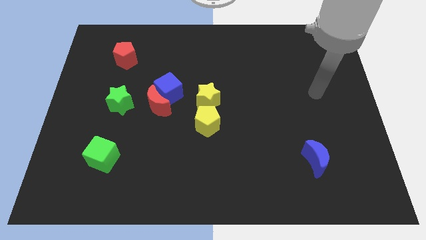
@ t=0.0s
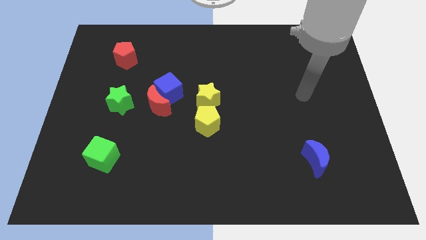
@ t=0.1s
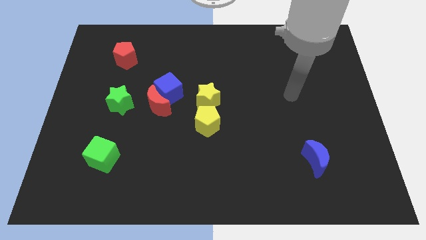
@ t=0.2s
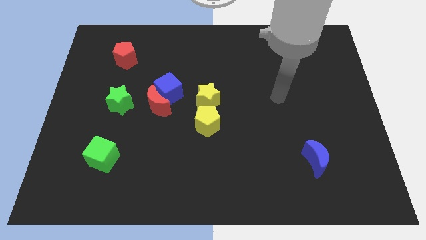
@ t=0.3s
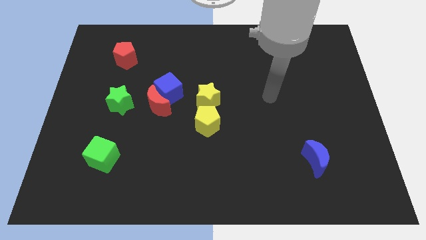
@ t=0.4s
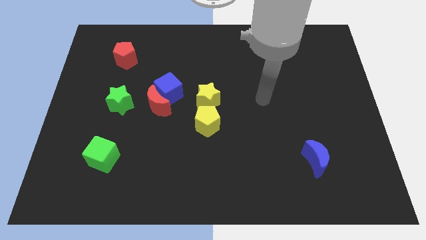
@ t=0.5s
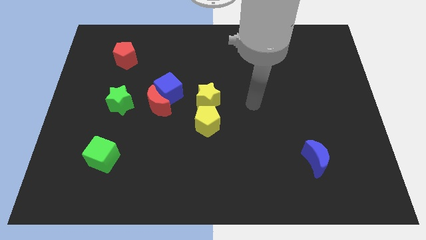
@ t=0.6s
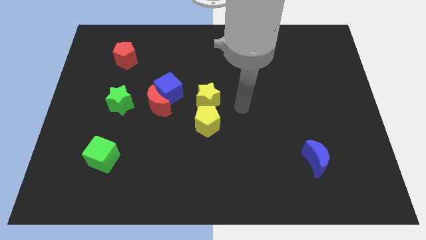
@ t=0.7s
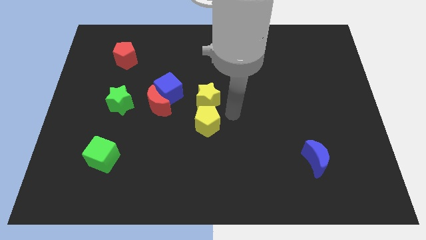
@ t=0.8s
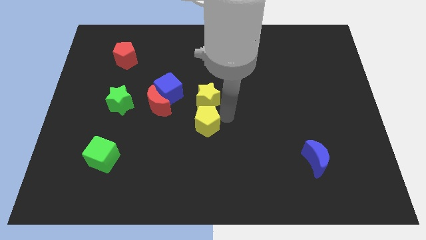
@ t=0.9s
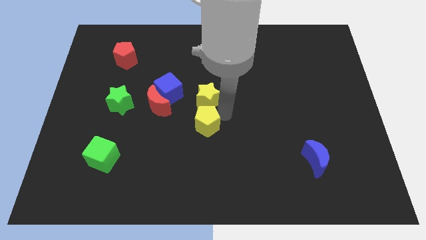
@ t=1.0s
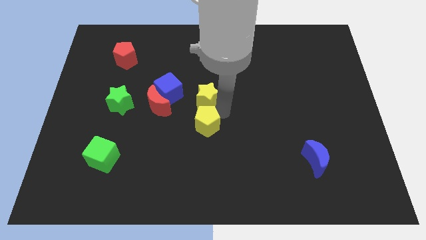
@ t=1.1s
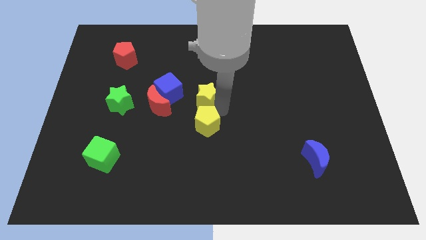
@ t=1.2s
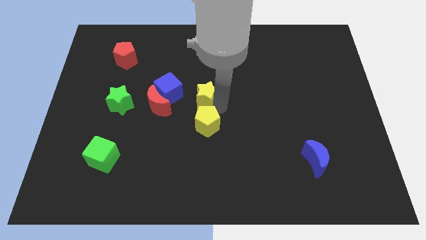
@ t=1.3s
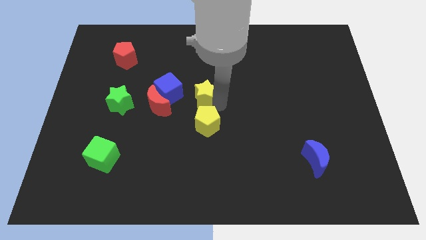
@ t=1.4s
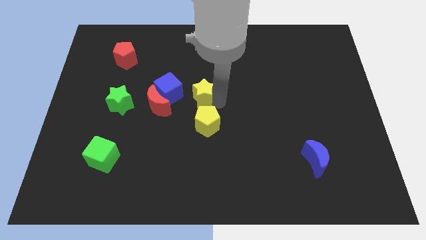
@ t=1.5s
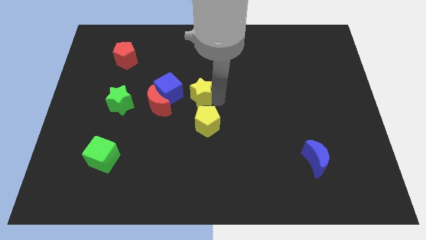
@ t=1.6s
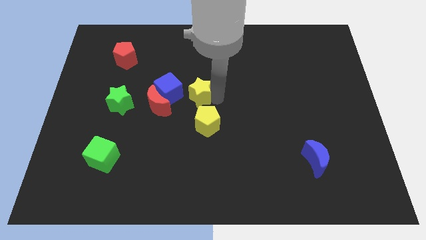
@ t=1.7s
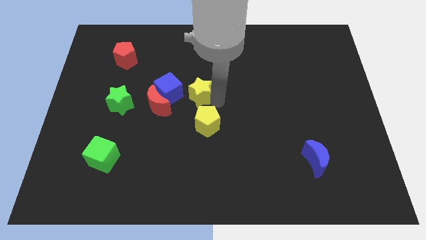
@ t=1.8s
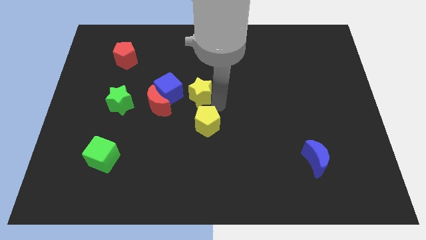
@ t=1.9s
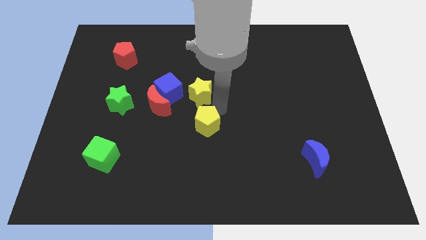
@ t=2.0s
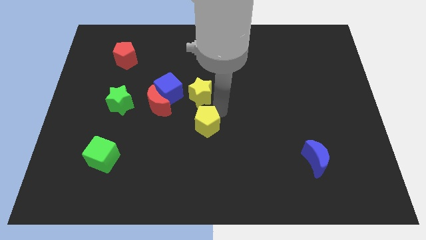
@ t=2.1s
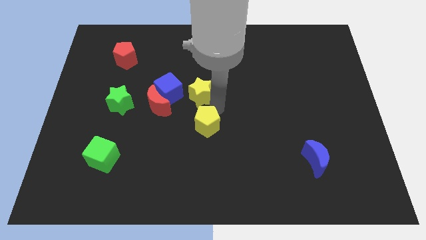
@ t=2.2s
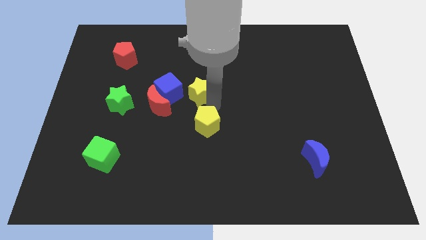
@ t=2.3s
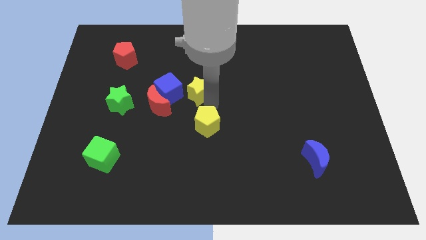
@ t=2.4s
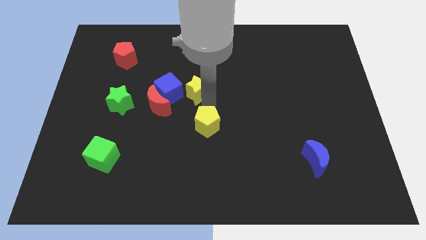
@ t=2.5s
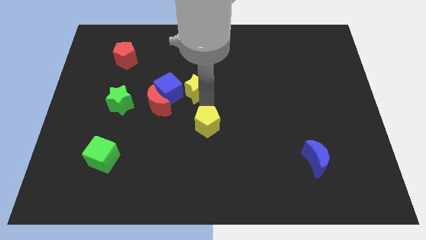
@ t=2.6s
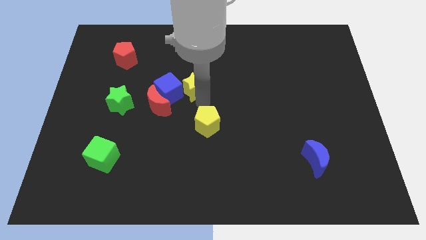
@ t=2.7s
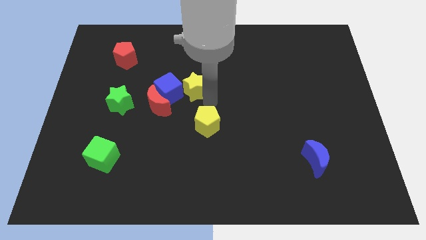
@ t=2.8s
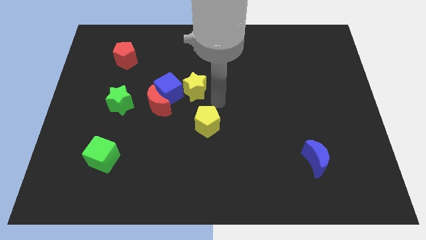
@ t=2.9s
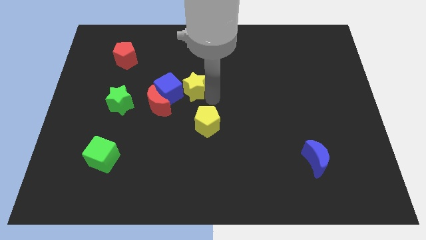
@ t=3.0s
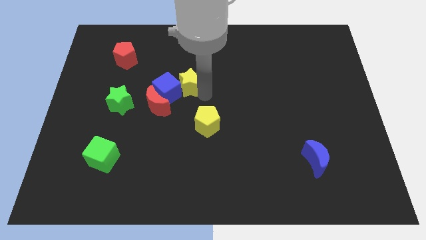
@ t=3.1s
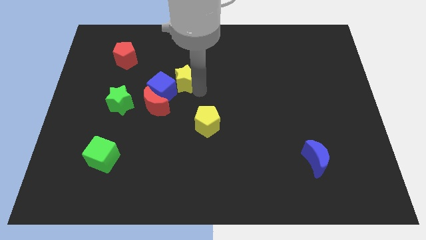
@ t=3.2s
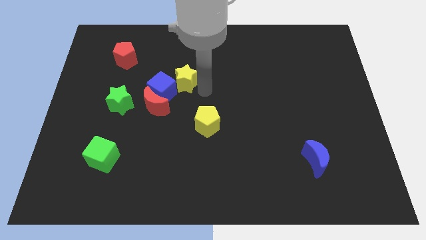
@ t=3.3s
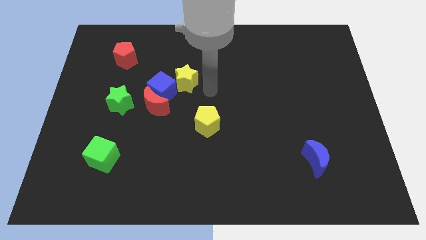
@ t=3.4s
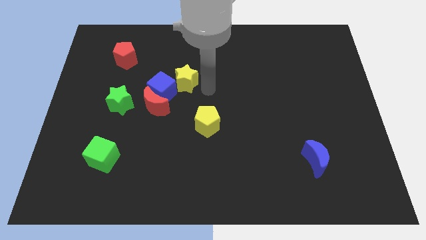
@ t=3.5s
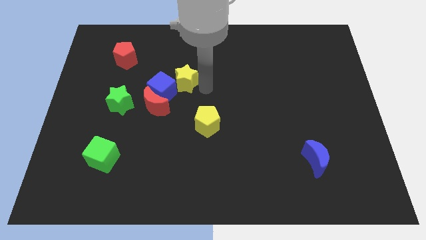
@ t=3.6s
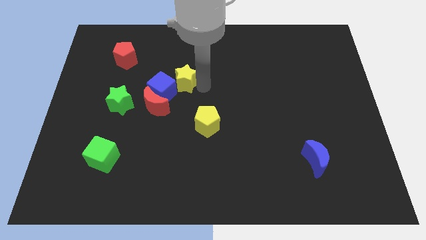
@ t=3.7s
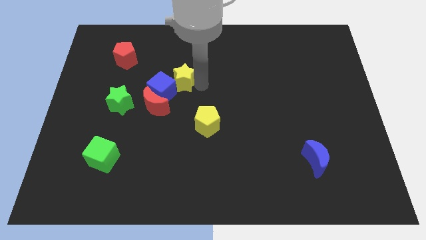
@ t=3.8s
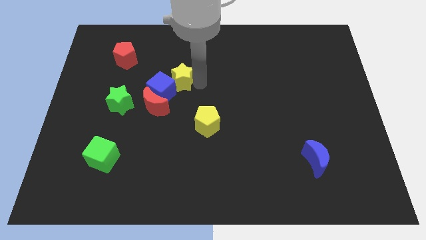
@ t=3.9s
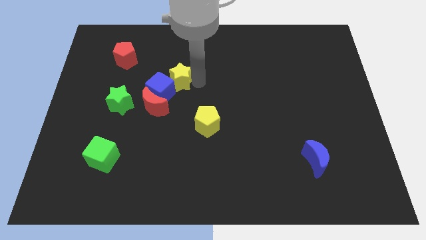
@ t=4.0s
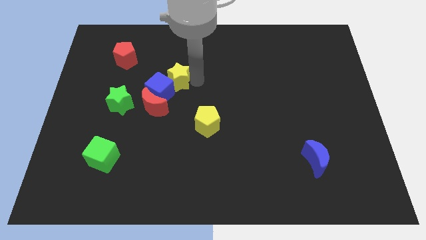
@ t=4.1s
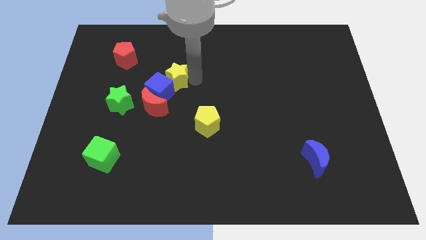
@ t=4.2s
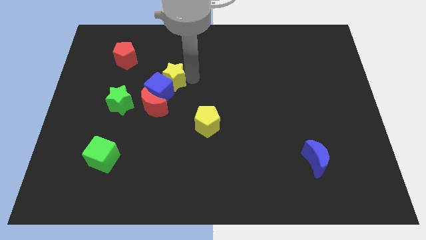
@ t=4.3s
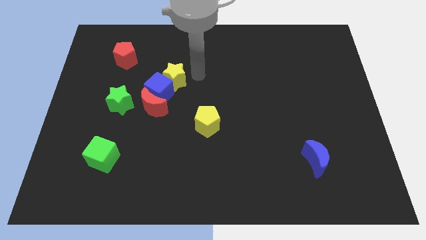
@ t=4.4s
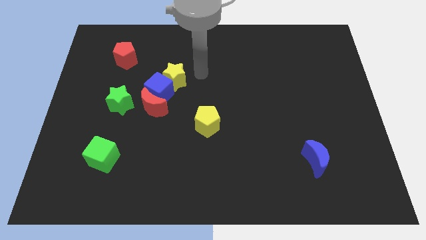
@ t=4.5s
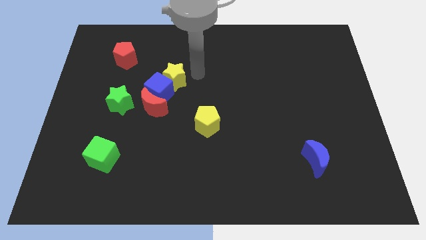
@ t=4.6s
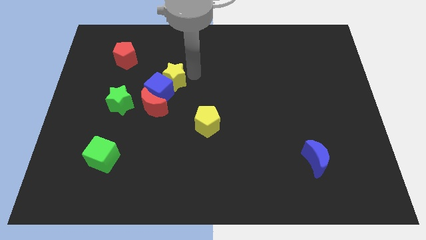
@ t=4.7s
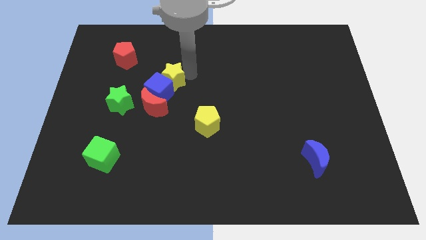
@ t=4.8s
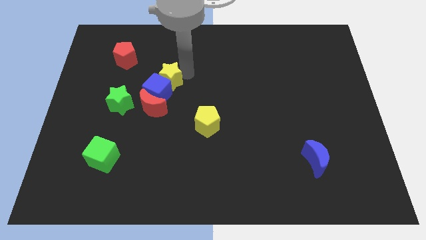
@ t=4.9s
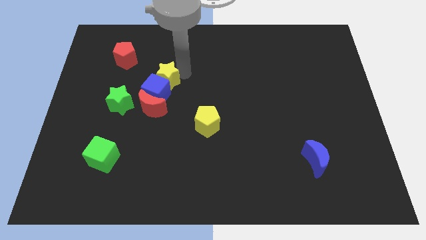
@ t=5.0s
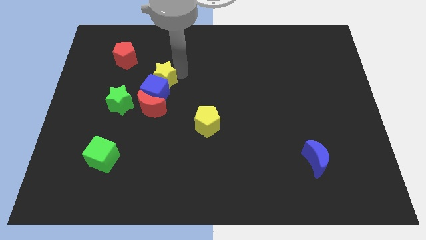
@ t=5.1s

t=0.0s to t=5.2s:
push the yellow star to the top right of the green star

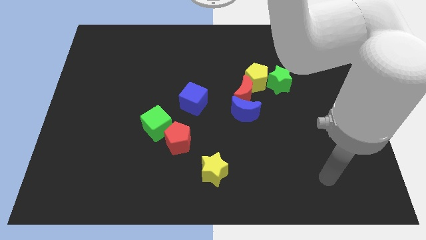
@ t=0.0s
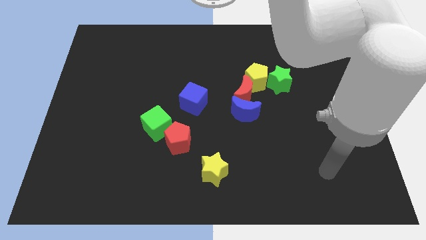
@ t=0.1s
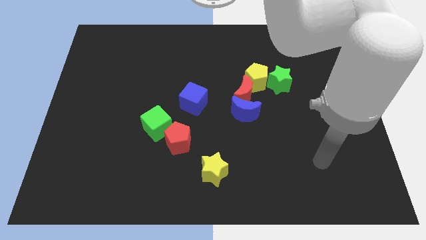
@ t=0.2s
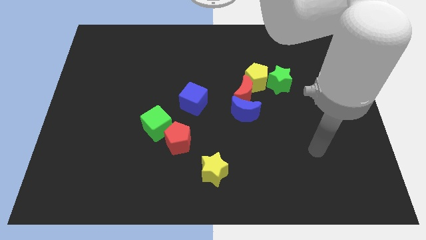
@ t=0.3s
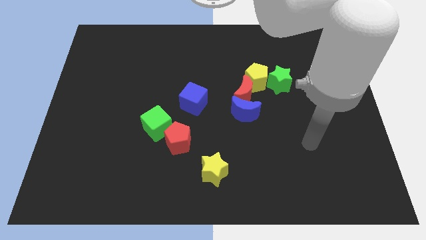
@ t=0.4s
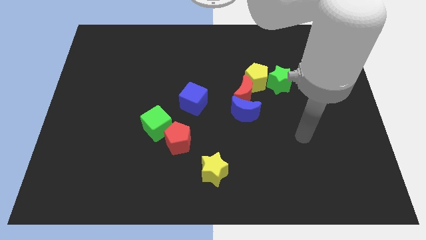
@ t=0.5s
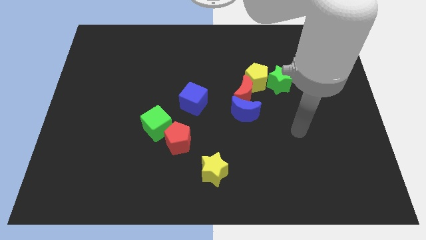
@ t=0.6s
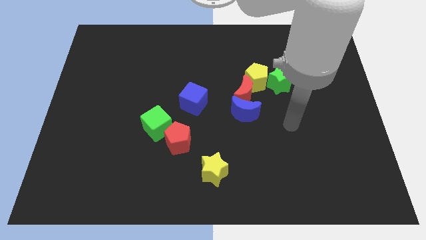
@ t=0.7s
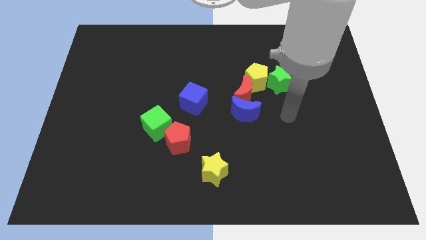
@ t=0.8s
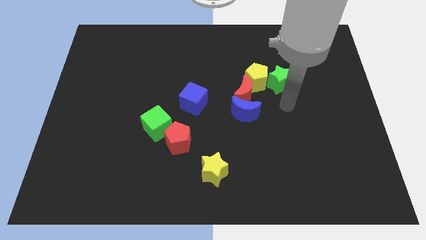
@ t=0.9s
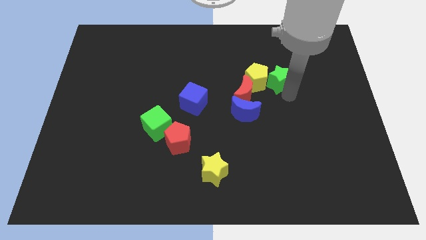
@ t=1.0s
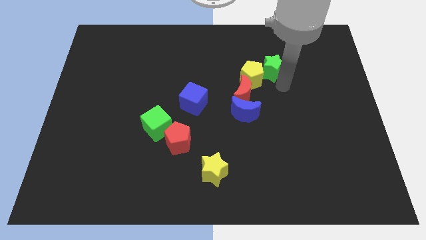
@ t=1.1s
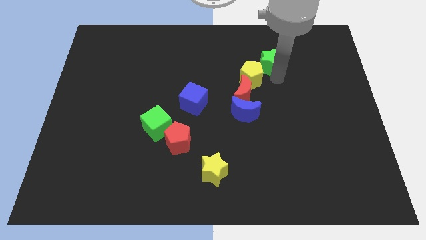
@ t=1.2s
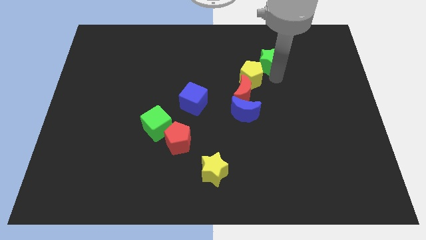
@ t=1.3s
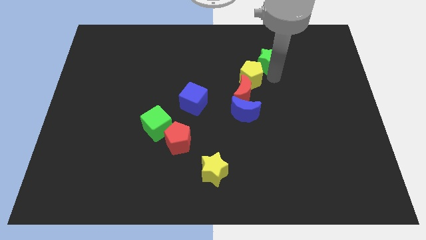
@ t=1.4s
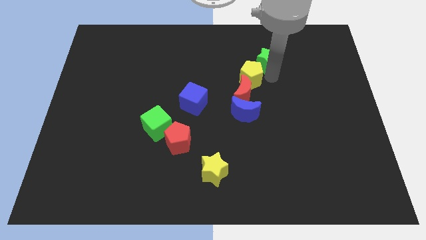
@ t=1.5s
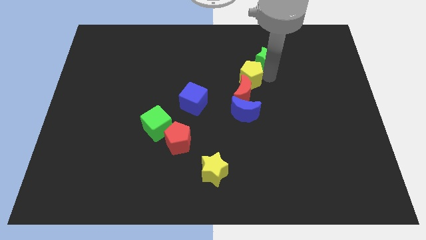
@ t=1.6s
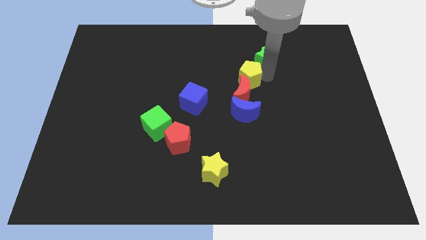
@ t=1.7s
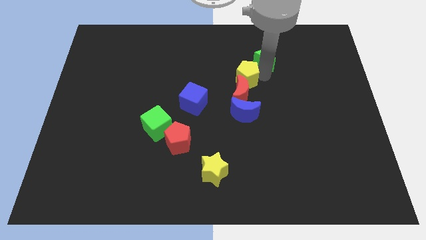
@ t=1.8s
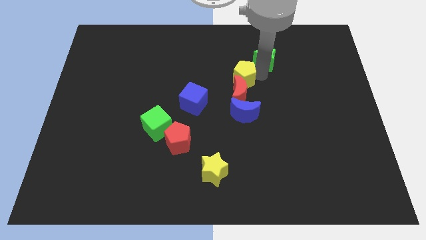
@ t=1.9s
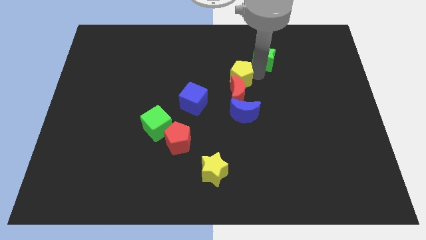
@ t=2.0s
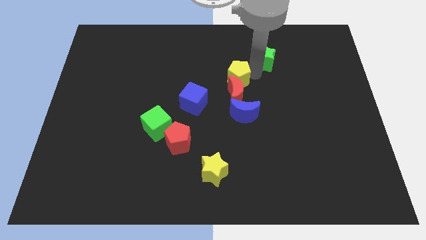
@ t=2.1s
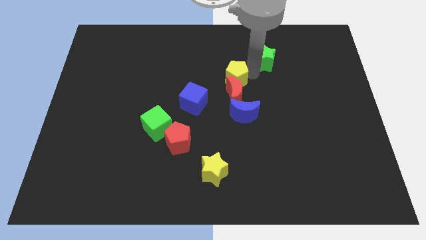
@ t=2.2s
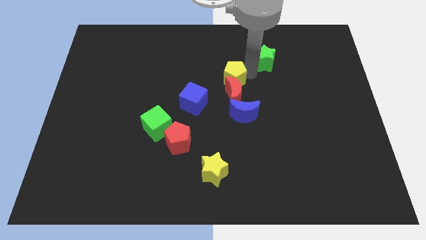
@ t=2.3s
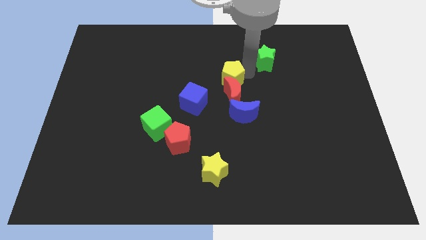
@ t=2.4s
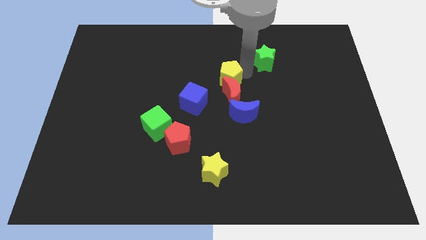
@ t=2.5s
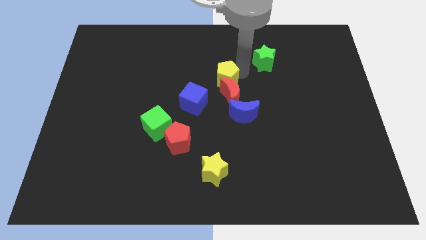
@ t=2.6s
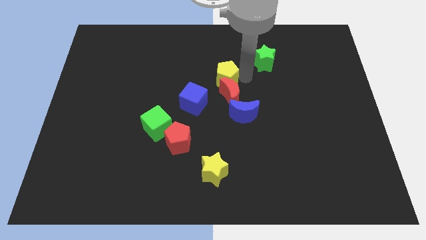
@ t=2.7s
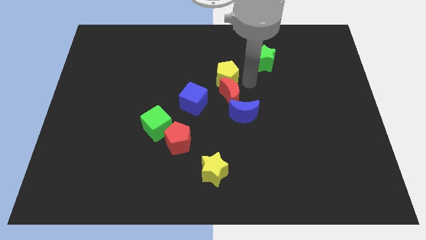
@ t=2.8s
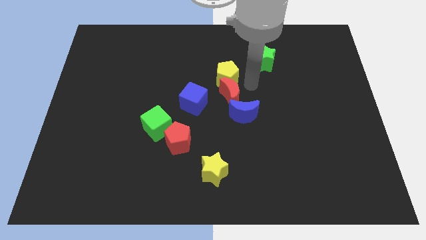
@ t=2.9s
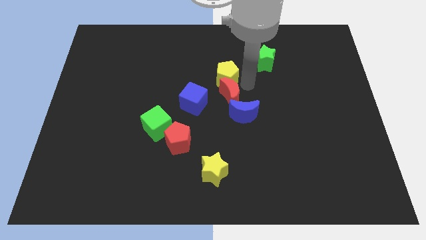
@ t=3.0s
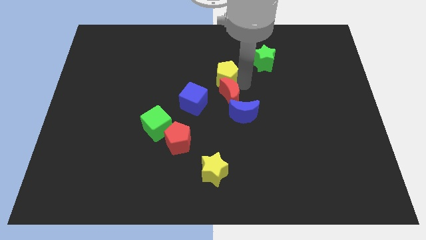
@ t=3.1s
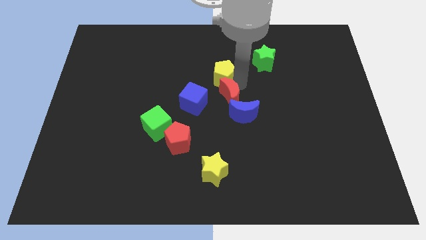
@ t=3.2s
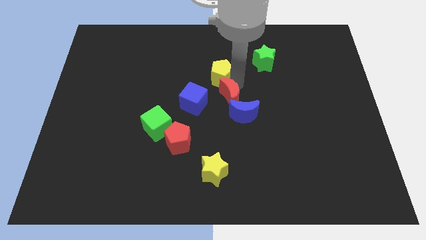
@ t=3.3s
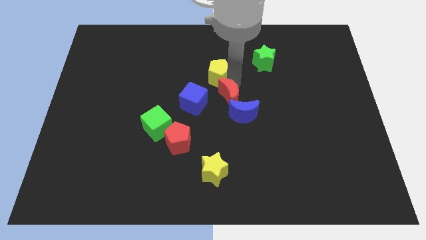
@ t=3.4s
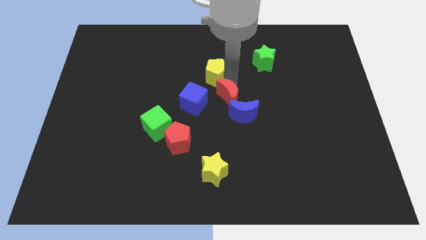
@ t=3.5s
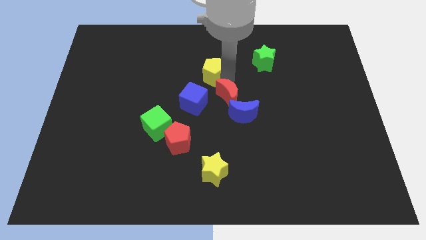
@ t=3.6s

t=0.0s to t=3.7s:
move the yellow pentagon to the top side of the blue cube
